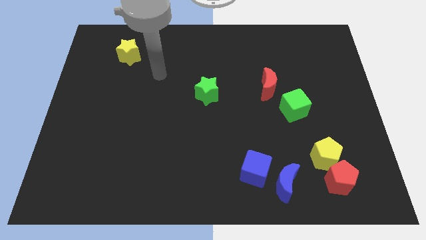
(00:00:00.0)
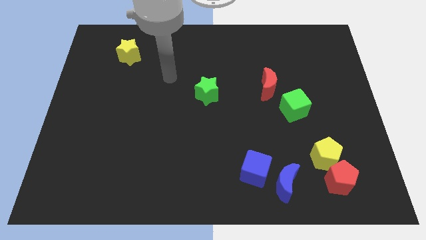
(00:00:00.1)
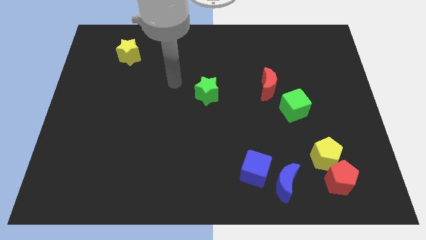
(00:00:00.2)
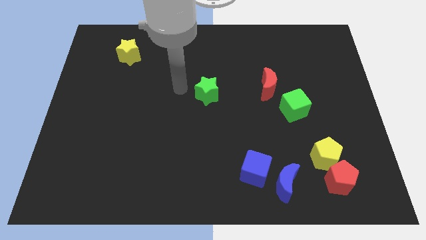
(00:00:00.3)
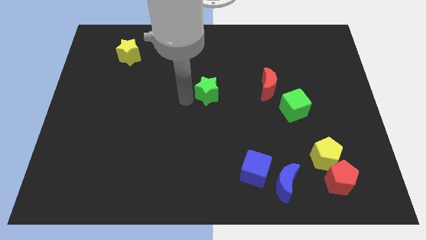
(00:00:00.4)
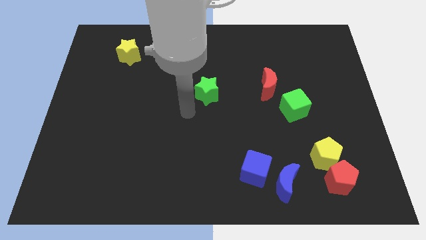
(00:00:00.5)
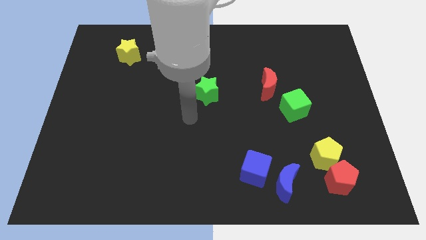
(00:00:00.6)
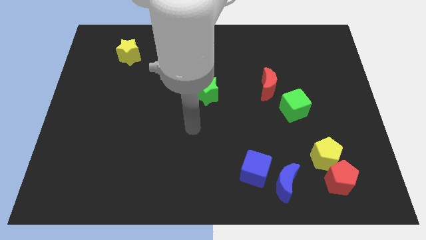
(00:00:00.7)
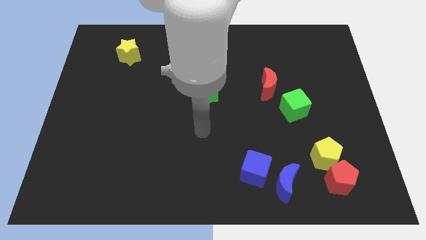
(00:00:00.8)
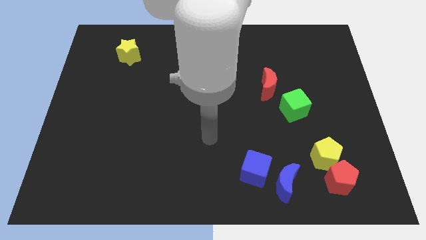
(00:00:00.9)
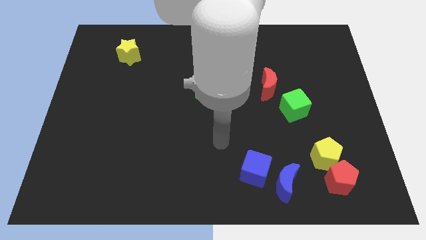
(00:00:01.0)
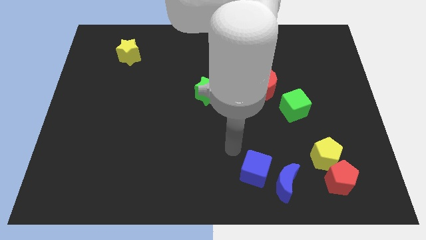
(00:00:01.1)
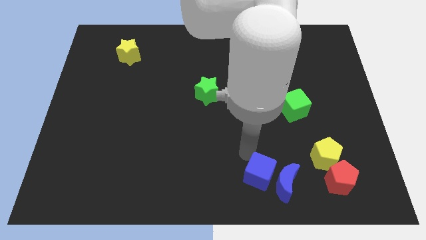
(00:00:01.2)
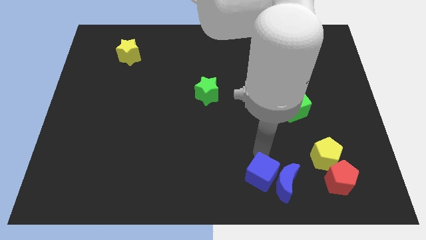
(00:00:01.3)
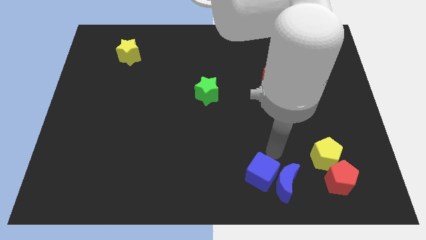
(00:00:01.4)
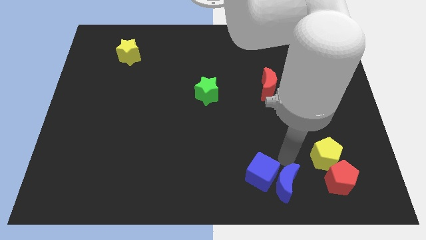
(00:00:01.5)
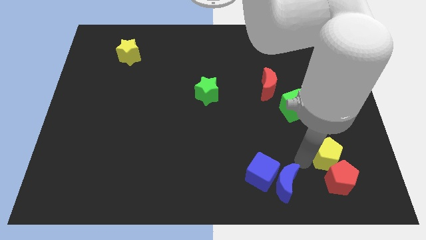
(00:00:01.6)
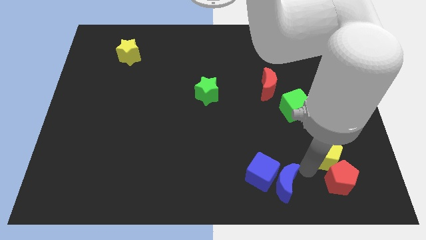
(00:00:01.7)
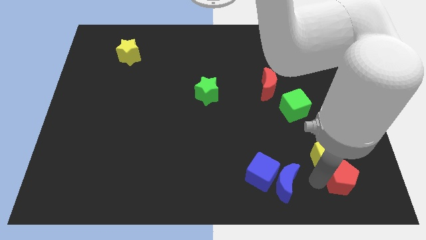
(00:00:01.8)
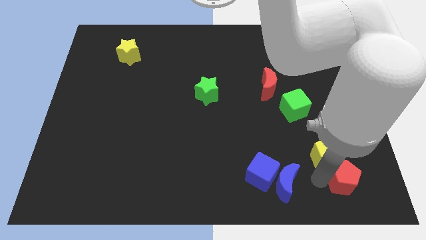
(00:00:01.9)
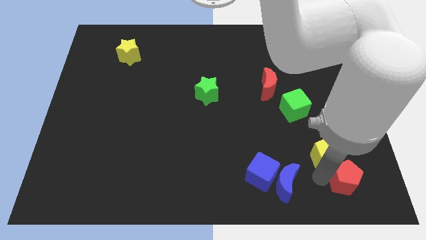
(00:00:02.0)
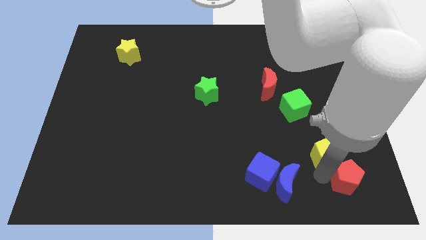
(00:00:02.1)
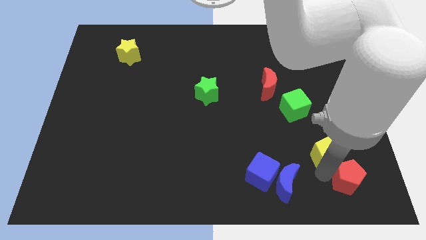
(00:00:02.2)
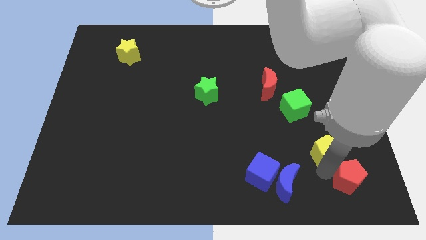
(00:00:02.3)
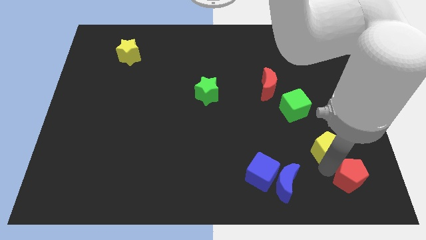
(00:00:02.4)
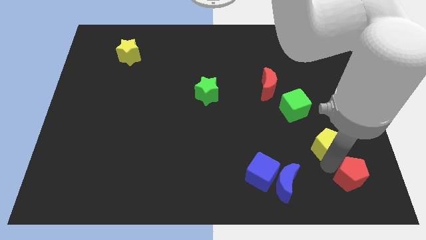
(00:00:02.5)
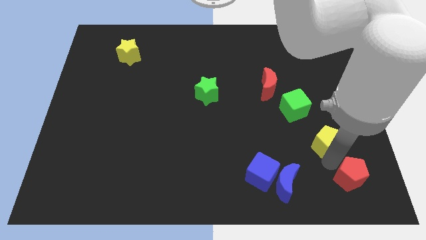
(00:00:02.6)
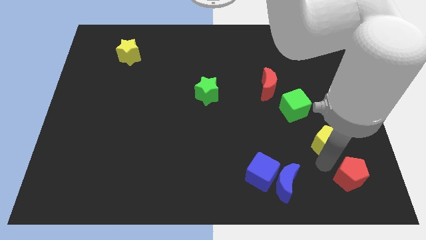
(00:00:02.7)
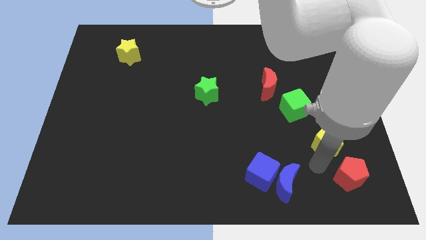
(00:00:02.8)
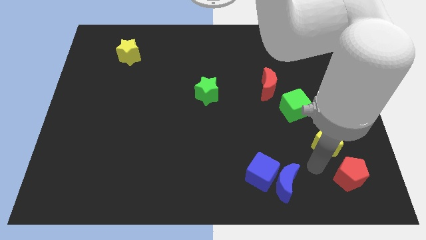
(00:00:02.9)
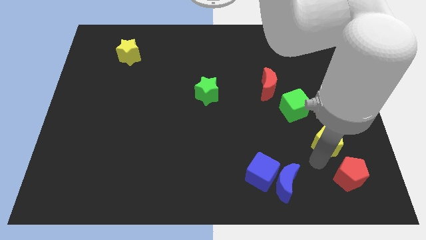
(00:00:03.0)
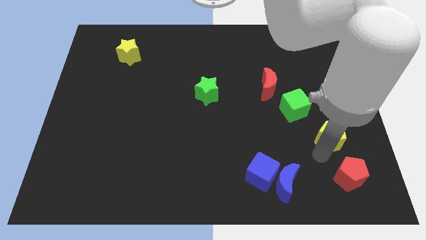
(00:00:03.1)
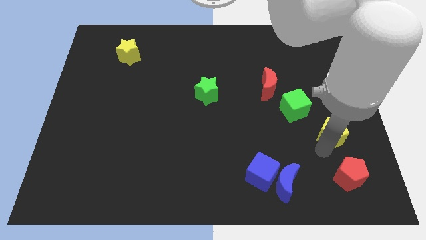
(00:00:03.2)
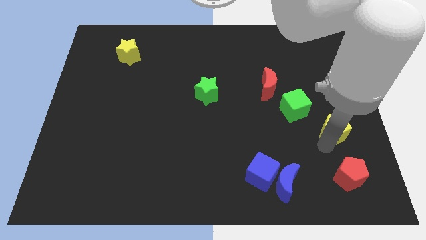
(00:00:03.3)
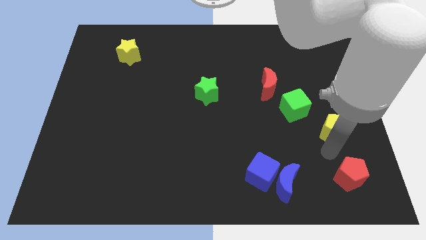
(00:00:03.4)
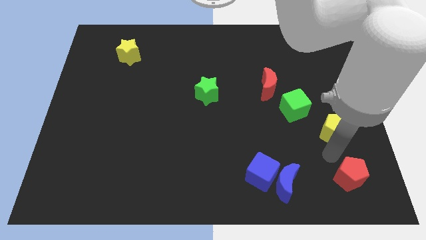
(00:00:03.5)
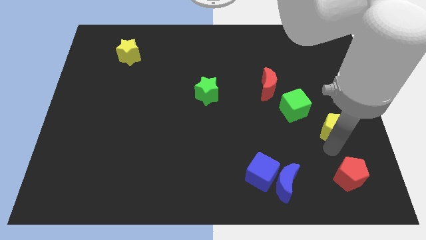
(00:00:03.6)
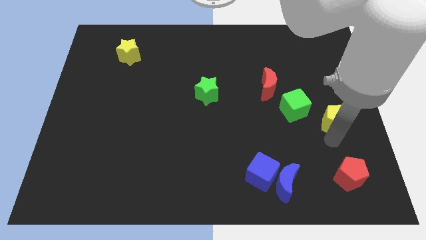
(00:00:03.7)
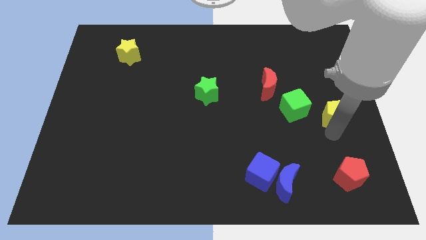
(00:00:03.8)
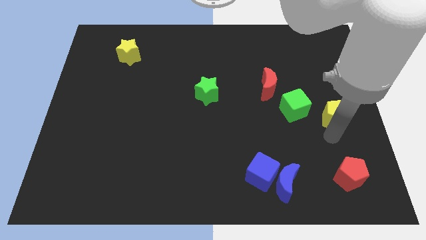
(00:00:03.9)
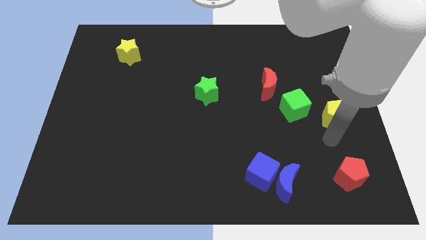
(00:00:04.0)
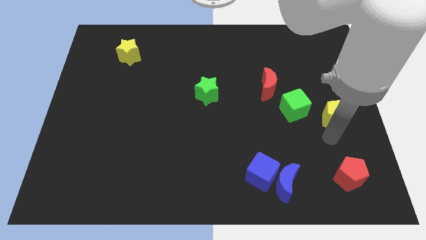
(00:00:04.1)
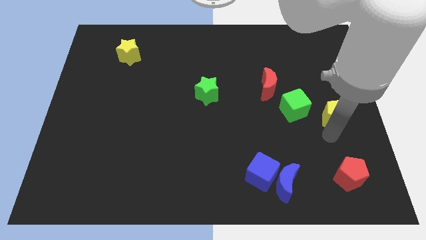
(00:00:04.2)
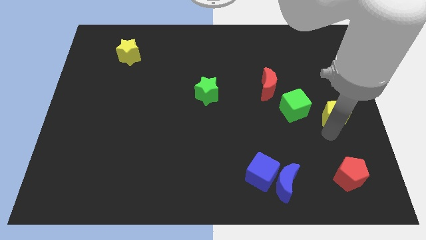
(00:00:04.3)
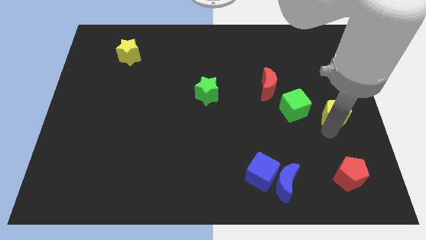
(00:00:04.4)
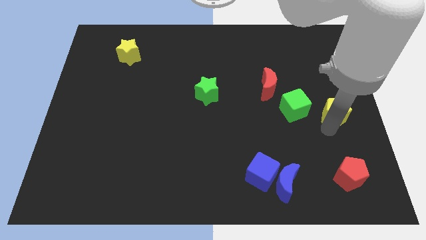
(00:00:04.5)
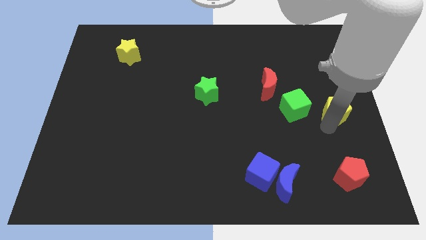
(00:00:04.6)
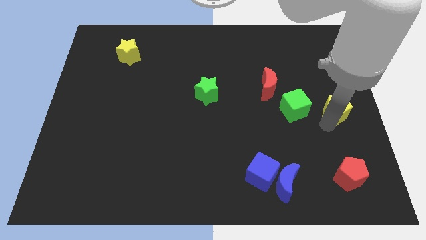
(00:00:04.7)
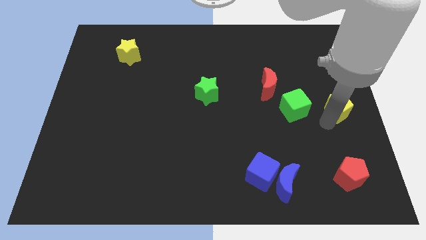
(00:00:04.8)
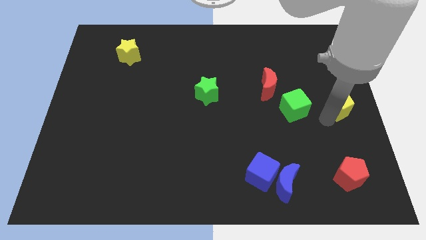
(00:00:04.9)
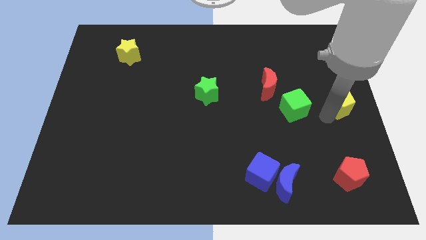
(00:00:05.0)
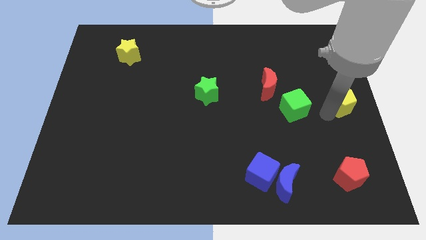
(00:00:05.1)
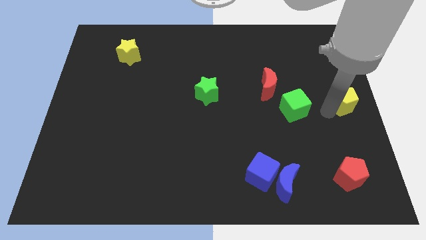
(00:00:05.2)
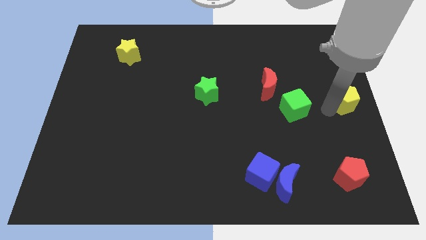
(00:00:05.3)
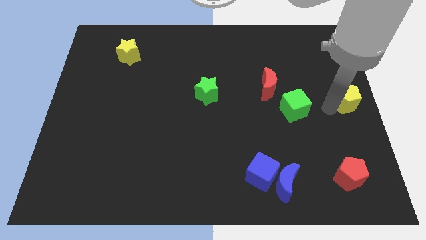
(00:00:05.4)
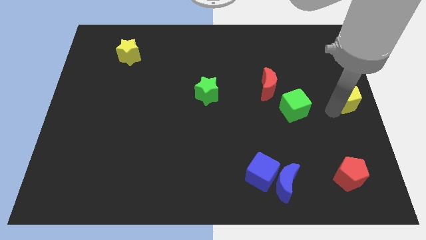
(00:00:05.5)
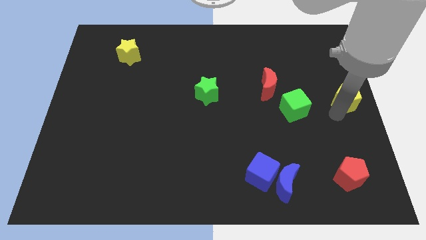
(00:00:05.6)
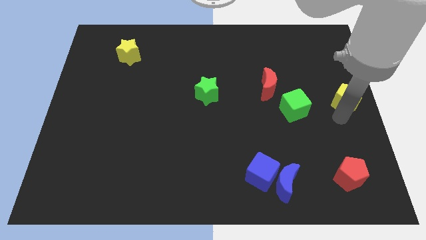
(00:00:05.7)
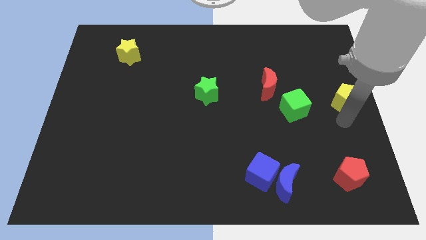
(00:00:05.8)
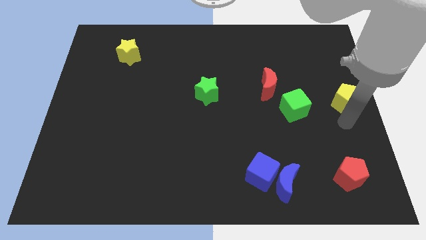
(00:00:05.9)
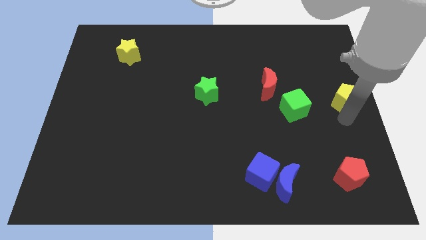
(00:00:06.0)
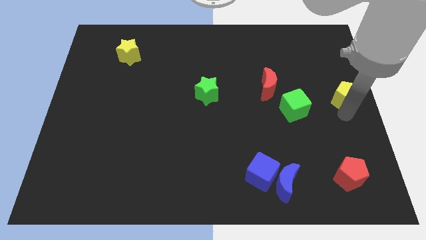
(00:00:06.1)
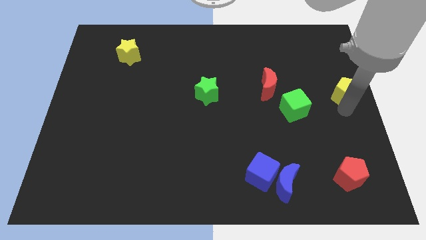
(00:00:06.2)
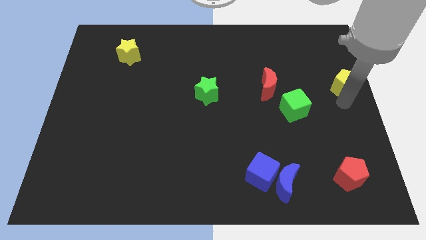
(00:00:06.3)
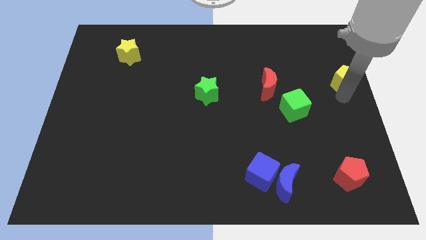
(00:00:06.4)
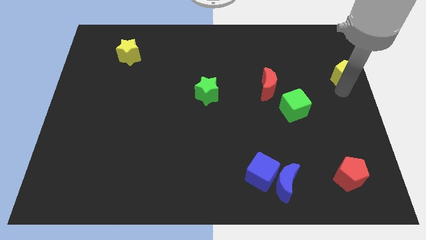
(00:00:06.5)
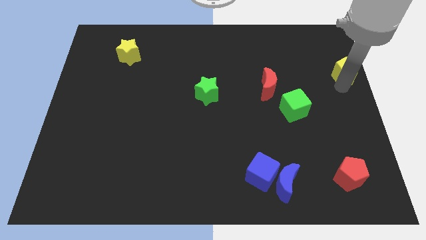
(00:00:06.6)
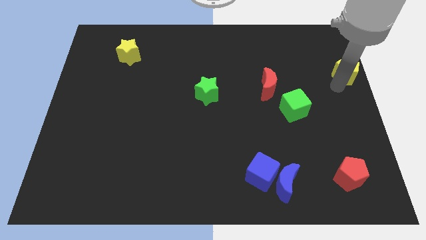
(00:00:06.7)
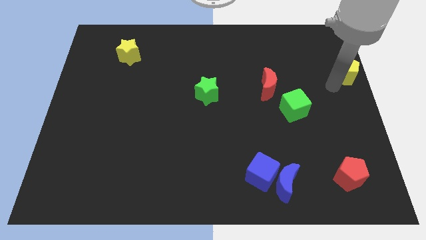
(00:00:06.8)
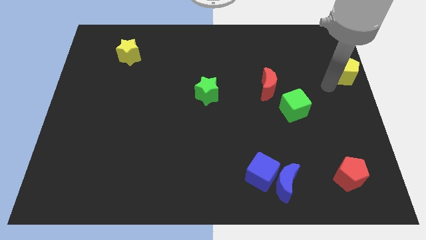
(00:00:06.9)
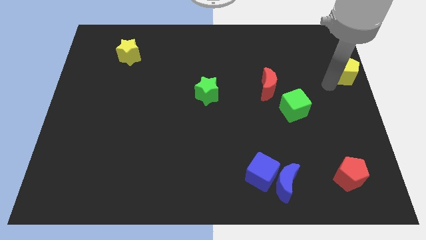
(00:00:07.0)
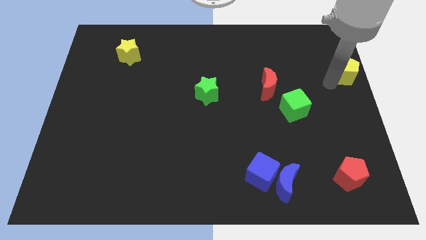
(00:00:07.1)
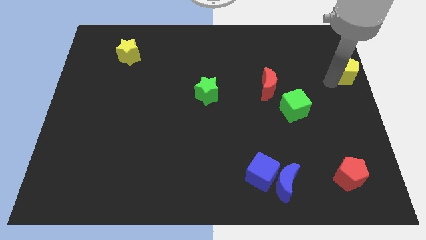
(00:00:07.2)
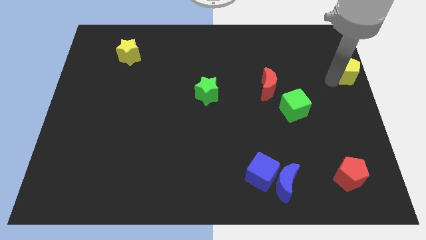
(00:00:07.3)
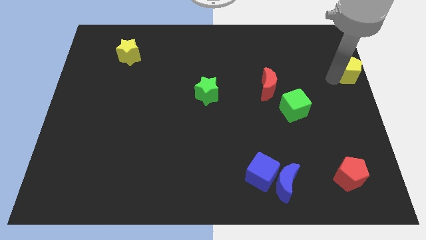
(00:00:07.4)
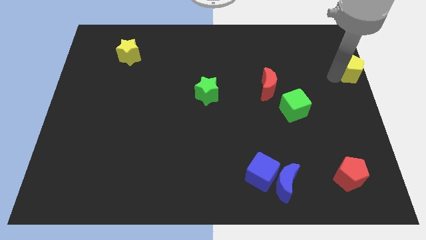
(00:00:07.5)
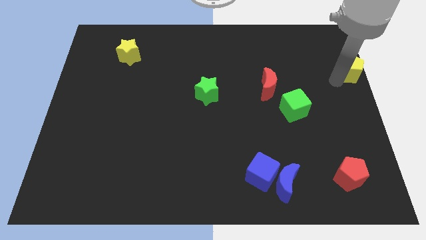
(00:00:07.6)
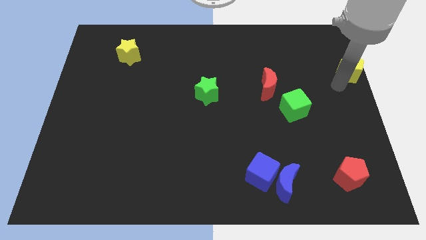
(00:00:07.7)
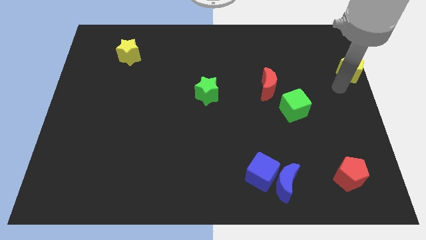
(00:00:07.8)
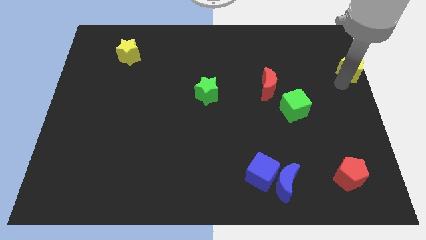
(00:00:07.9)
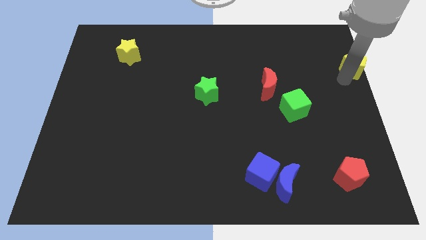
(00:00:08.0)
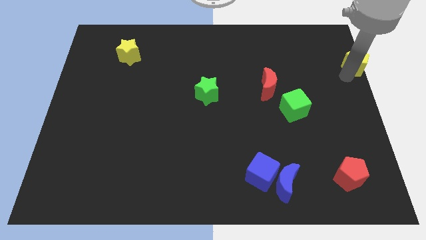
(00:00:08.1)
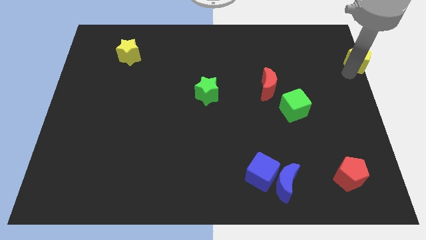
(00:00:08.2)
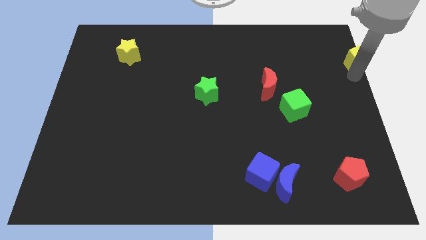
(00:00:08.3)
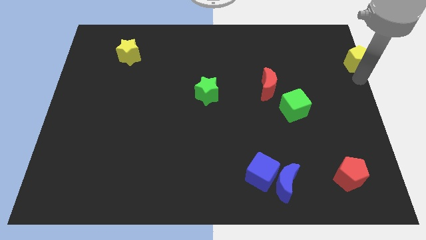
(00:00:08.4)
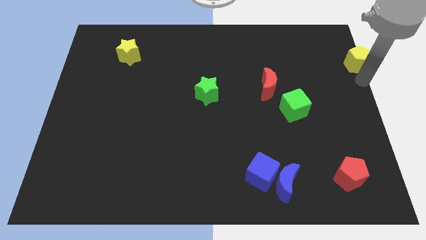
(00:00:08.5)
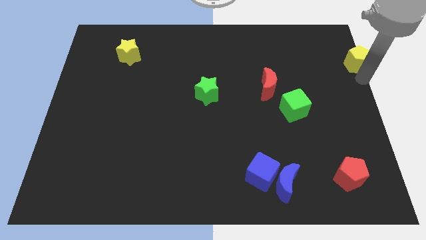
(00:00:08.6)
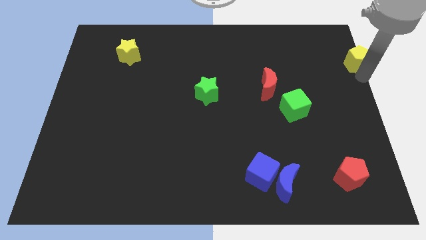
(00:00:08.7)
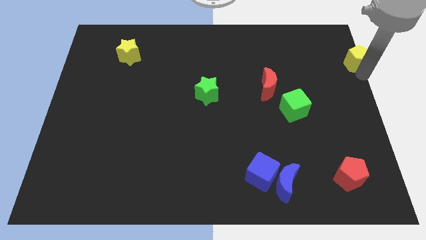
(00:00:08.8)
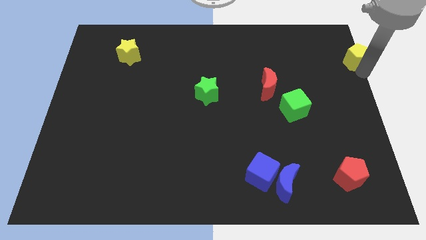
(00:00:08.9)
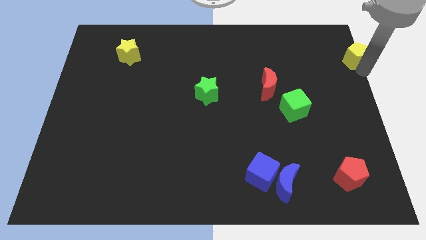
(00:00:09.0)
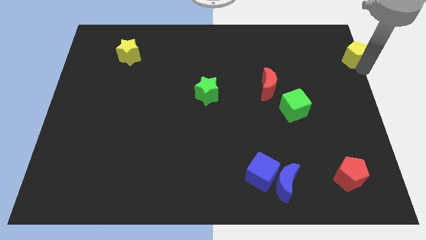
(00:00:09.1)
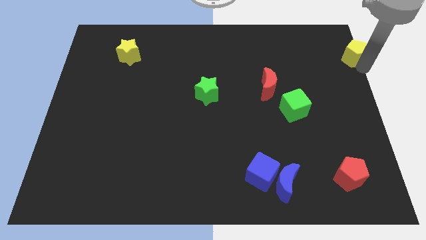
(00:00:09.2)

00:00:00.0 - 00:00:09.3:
put the yellow pentagon to the top right of the board
